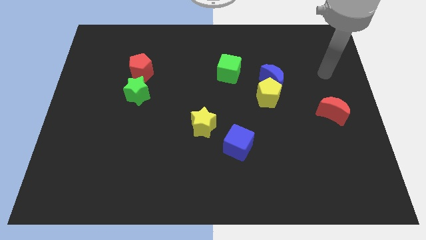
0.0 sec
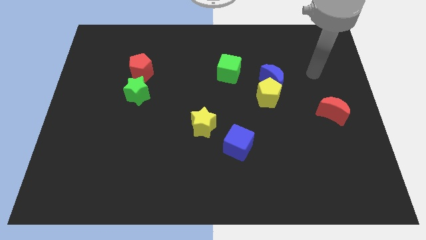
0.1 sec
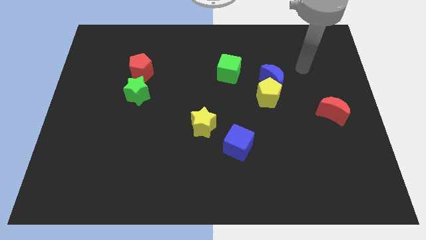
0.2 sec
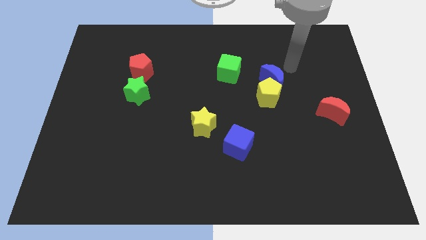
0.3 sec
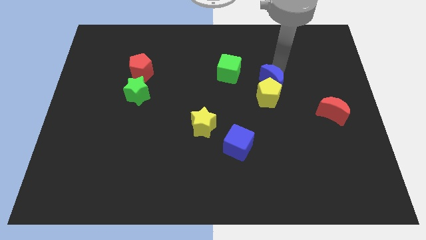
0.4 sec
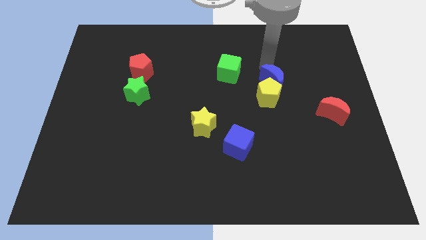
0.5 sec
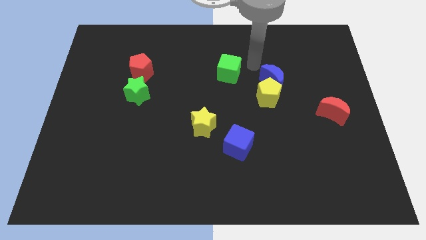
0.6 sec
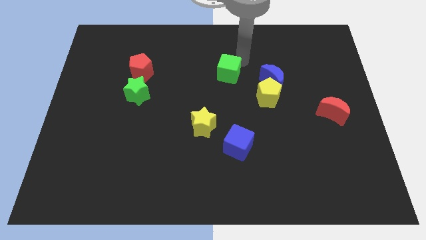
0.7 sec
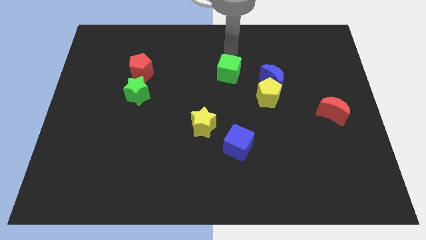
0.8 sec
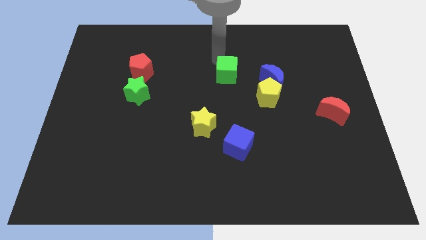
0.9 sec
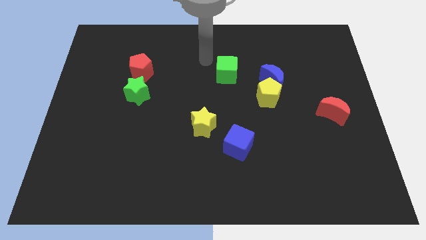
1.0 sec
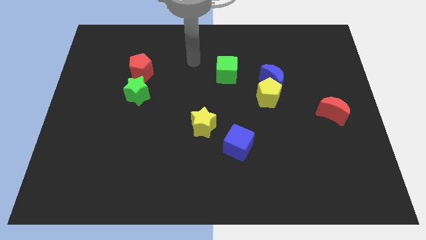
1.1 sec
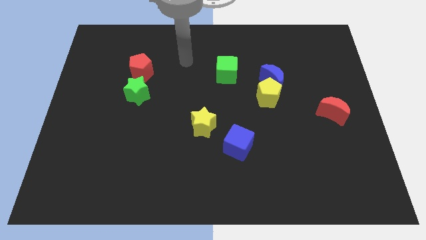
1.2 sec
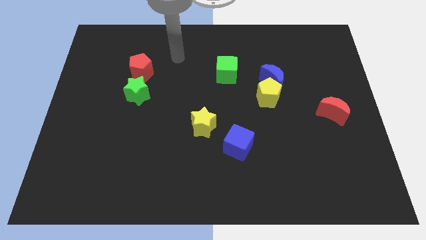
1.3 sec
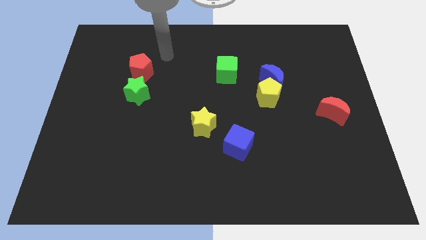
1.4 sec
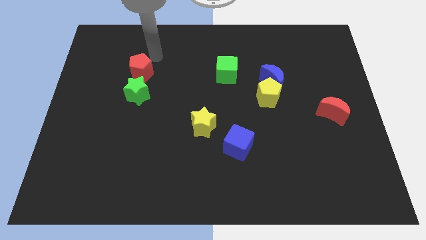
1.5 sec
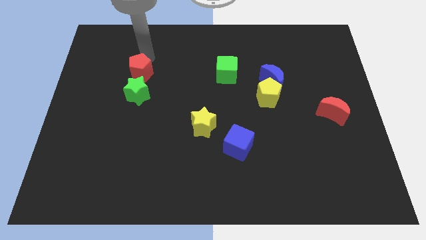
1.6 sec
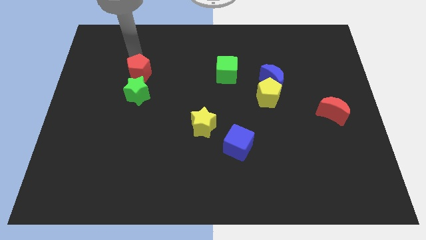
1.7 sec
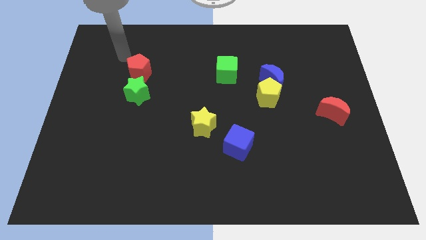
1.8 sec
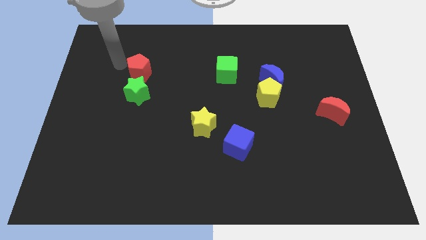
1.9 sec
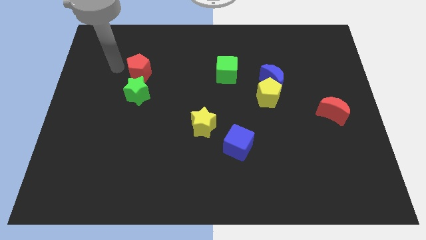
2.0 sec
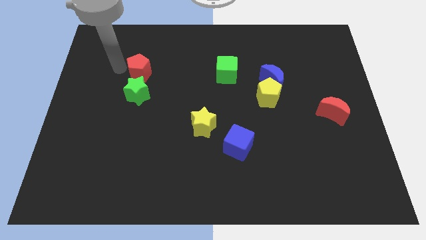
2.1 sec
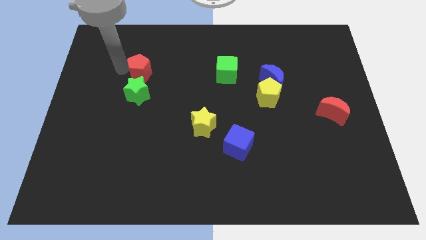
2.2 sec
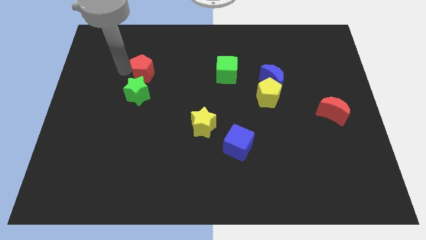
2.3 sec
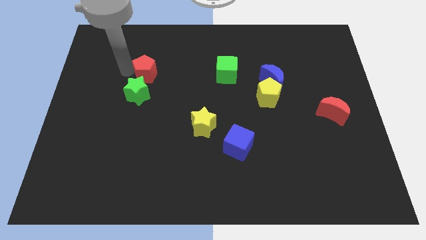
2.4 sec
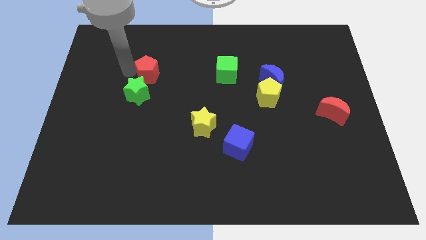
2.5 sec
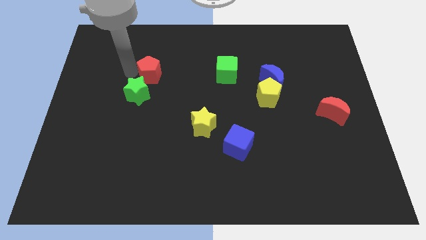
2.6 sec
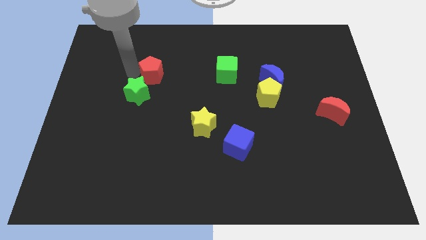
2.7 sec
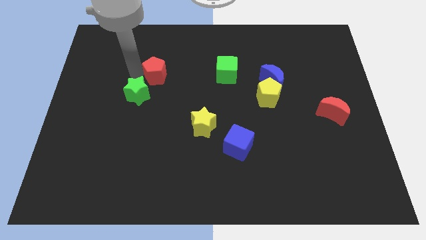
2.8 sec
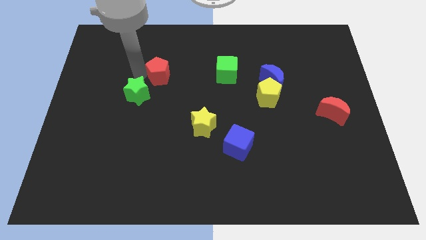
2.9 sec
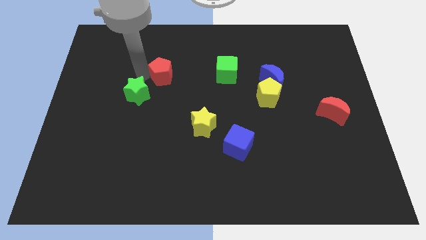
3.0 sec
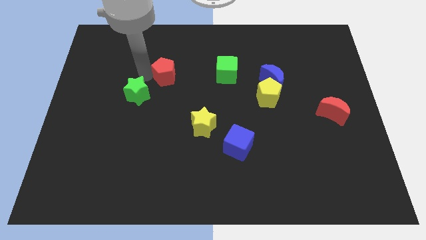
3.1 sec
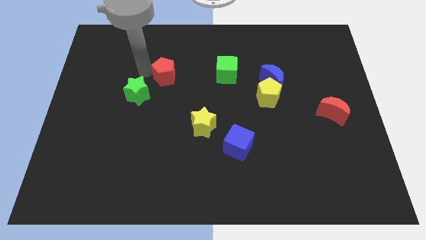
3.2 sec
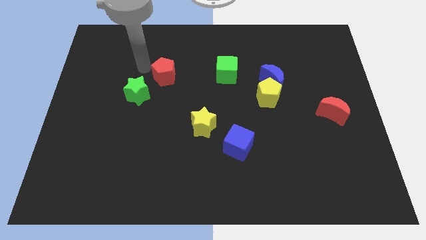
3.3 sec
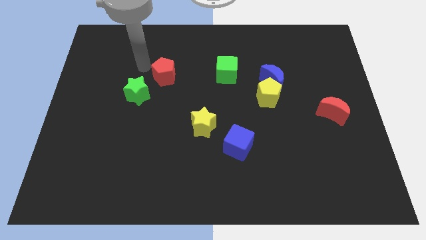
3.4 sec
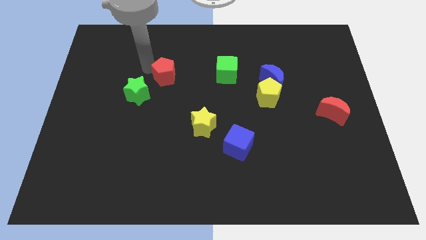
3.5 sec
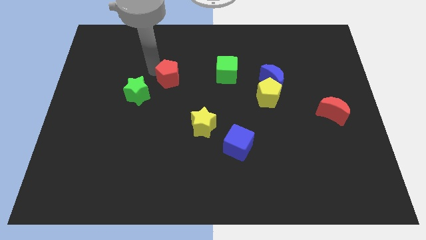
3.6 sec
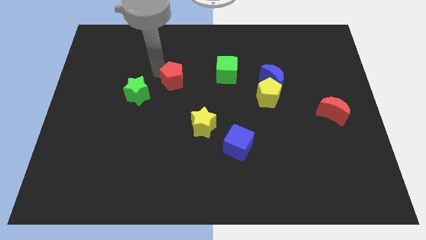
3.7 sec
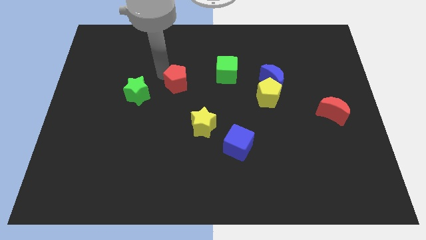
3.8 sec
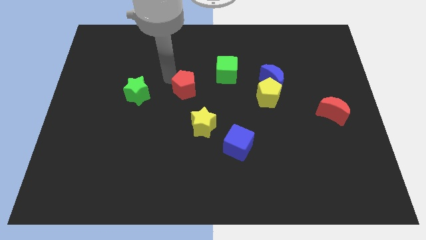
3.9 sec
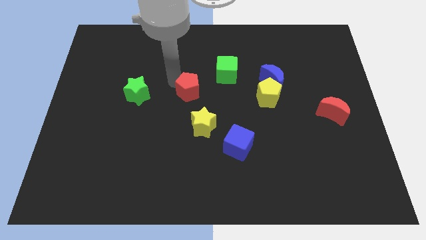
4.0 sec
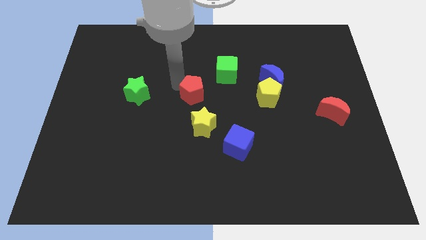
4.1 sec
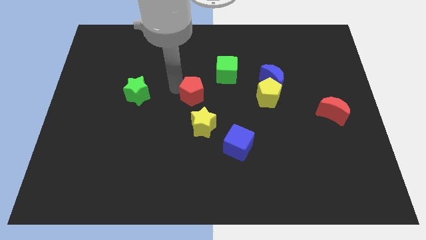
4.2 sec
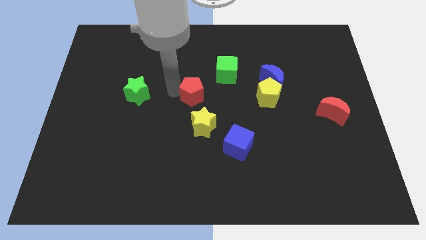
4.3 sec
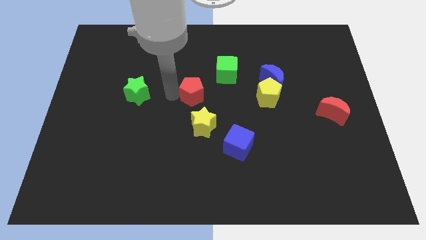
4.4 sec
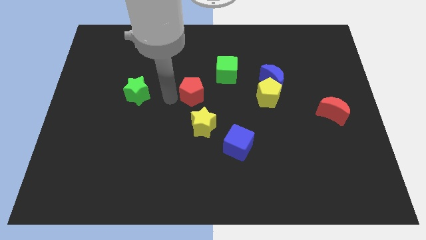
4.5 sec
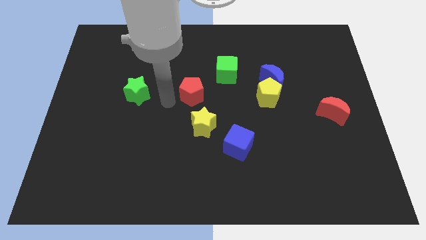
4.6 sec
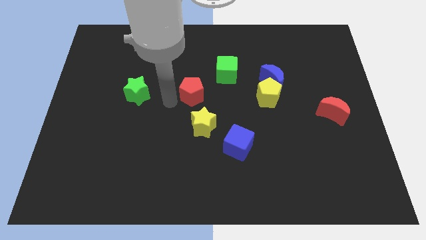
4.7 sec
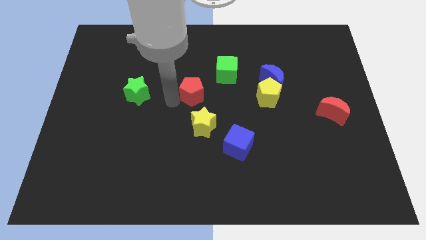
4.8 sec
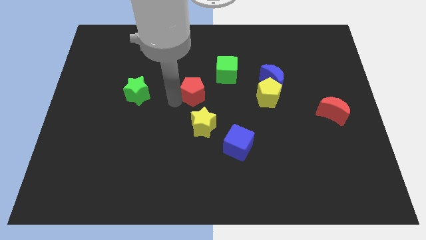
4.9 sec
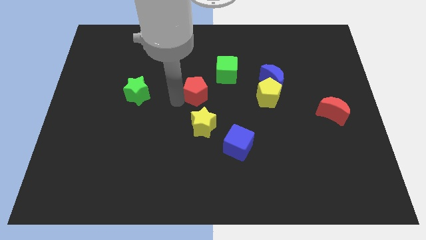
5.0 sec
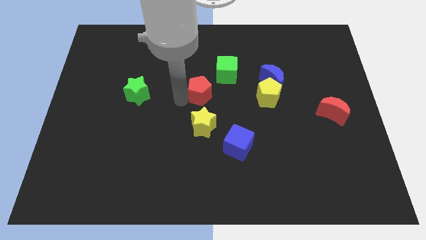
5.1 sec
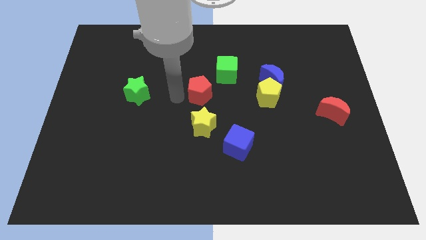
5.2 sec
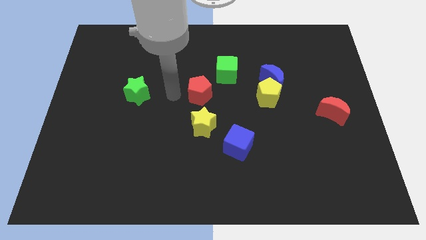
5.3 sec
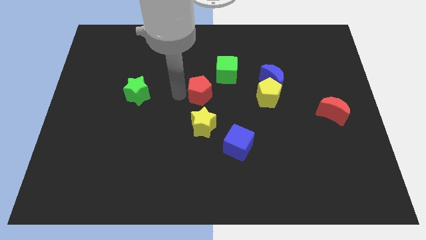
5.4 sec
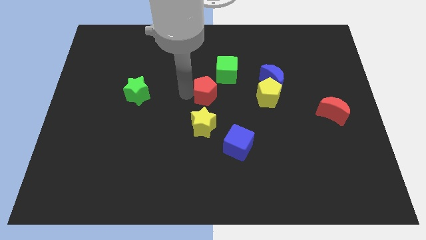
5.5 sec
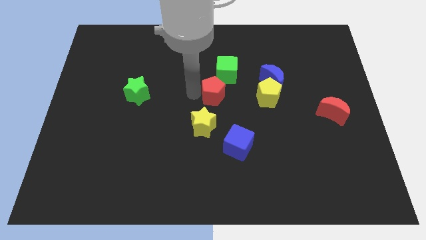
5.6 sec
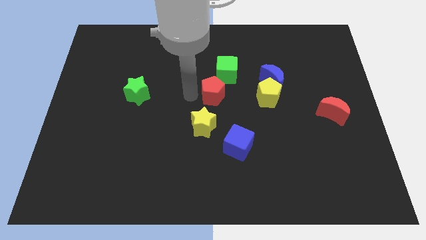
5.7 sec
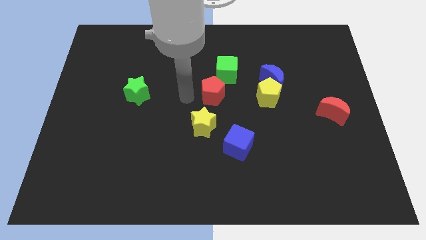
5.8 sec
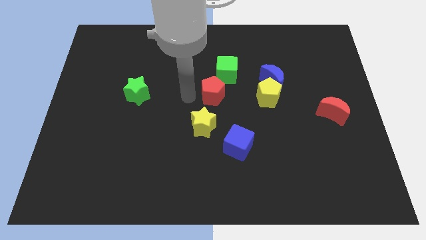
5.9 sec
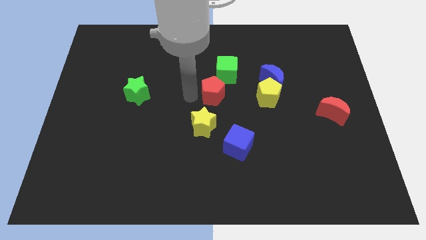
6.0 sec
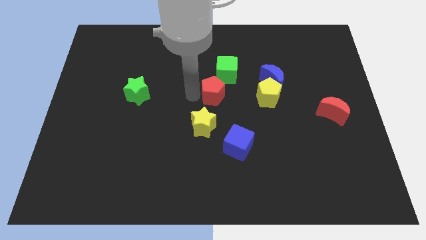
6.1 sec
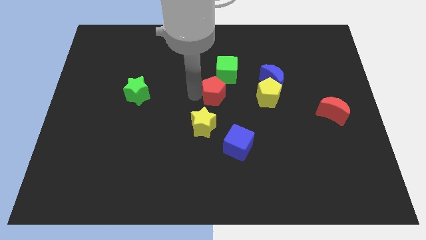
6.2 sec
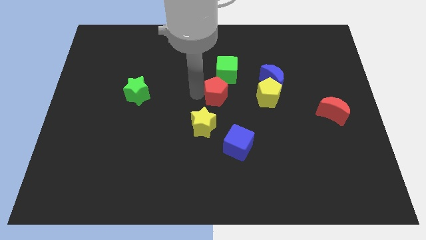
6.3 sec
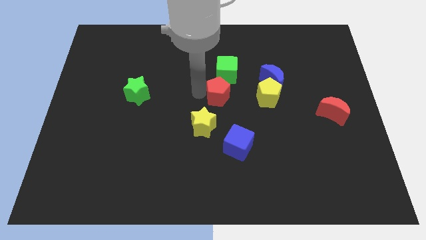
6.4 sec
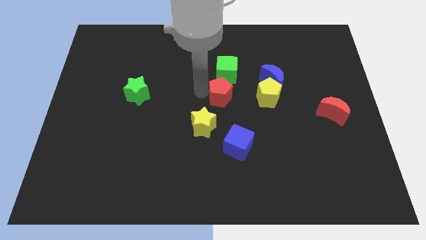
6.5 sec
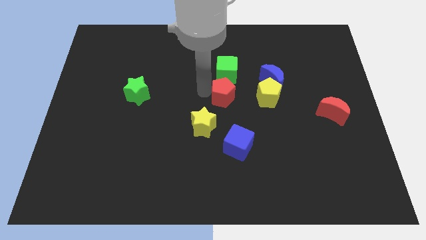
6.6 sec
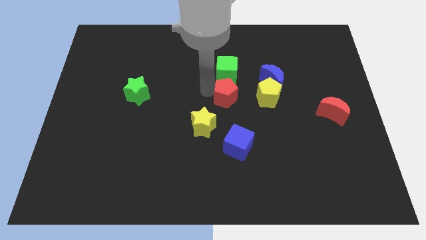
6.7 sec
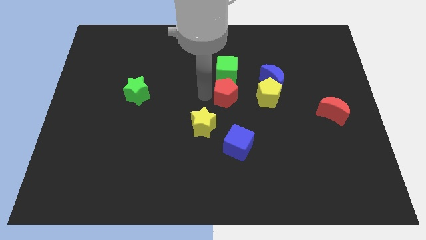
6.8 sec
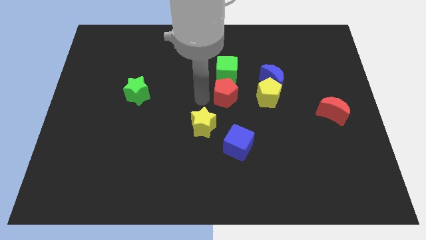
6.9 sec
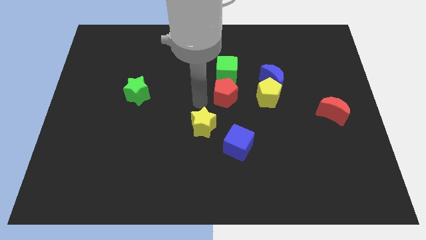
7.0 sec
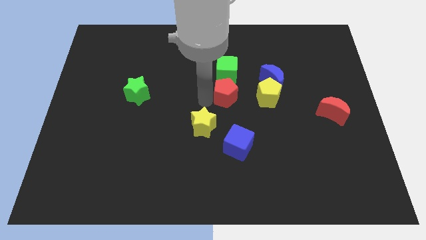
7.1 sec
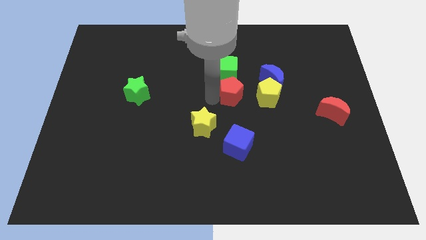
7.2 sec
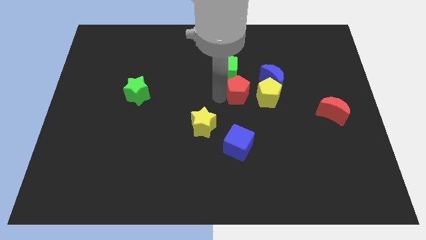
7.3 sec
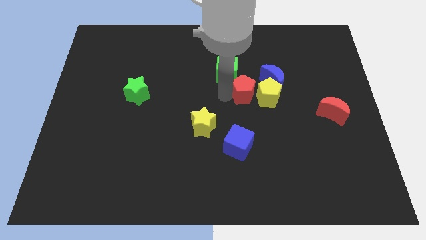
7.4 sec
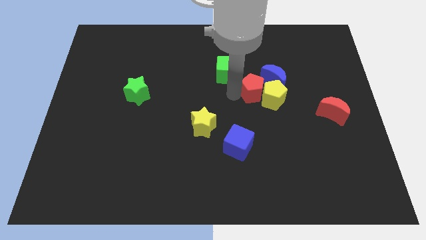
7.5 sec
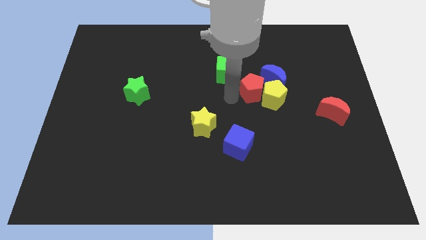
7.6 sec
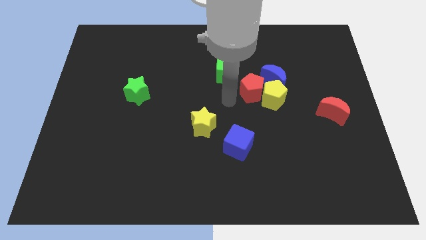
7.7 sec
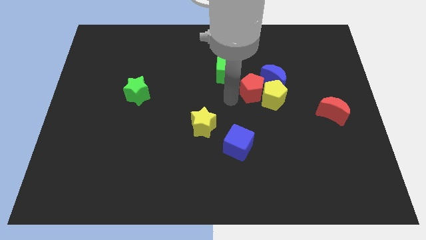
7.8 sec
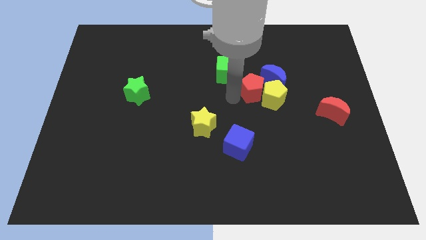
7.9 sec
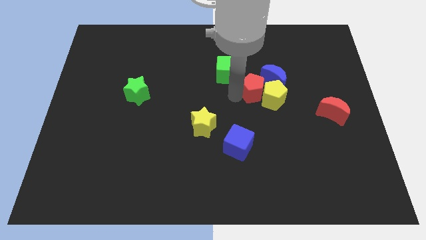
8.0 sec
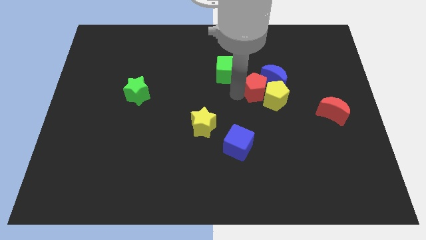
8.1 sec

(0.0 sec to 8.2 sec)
slide the red pentagon to the blue moon
